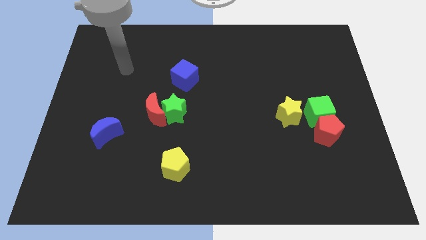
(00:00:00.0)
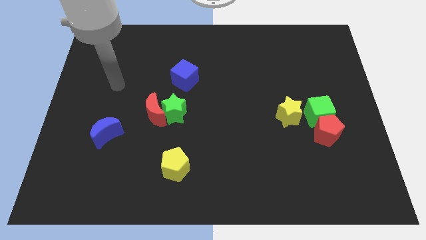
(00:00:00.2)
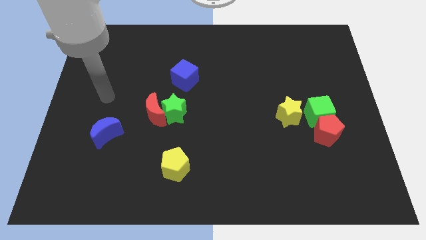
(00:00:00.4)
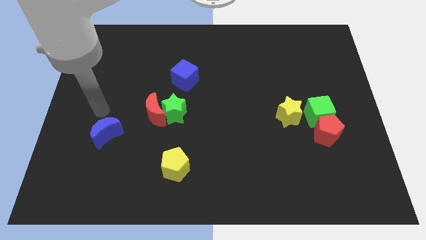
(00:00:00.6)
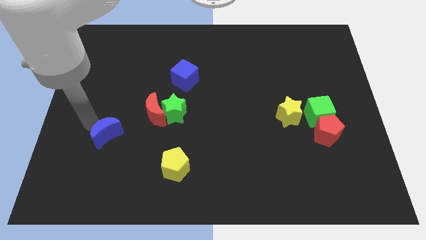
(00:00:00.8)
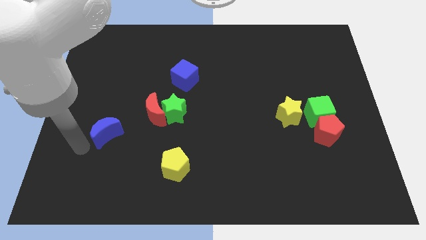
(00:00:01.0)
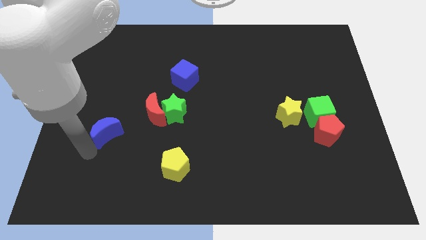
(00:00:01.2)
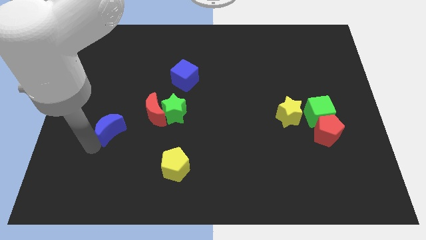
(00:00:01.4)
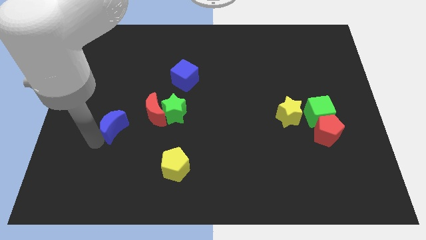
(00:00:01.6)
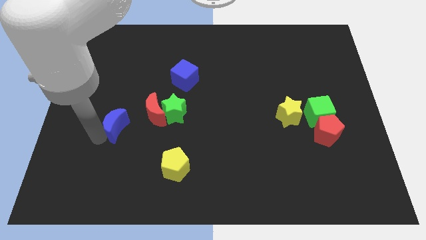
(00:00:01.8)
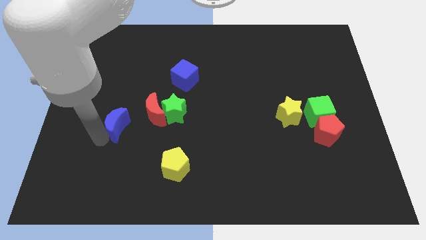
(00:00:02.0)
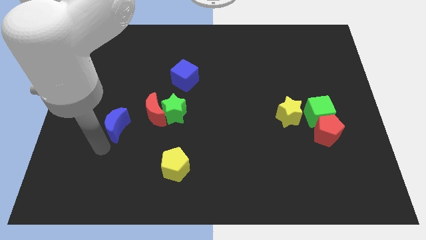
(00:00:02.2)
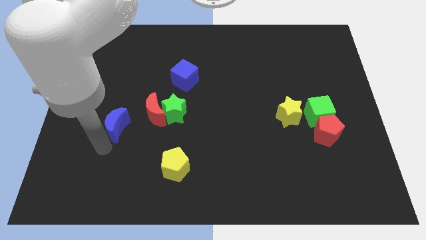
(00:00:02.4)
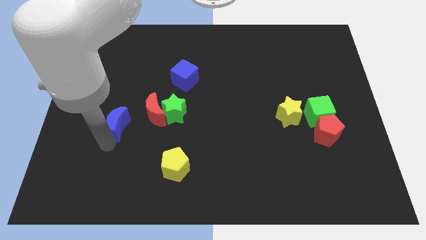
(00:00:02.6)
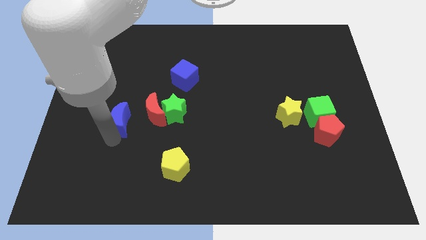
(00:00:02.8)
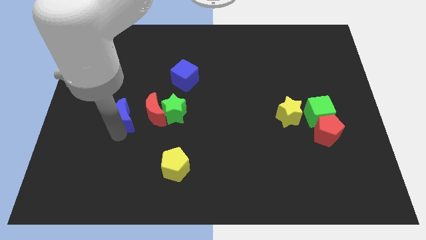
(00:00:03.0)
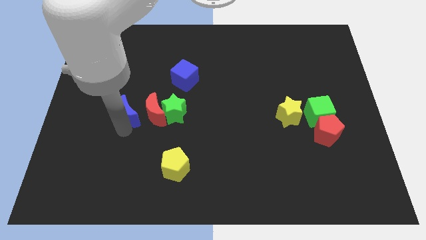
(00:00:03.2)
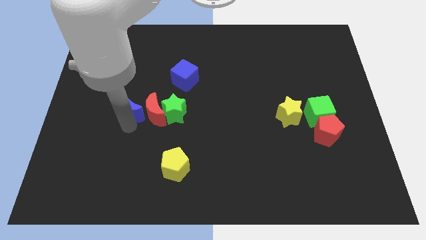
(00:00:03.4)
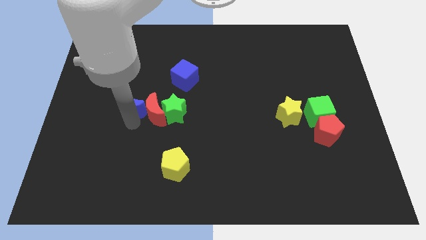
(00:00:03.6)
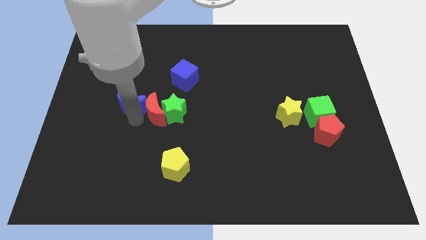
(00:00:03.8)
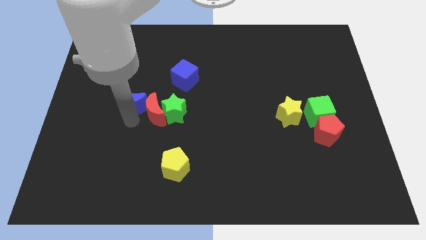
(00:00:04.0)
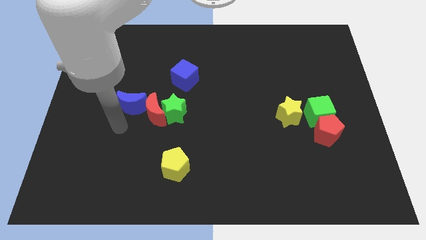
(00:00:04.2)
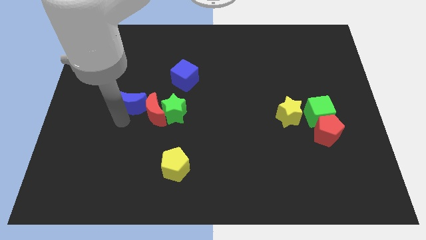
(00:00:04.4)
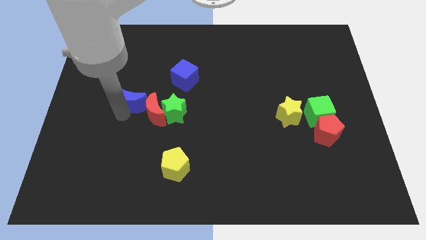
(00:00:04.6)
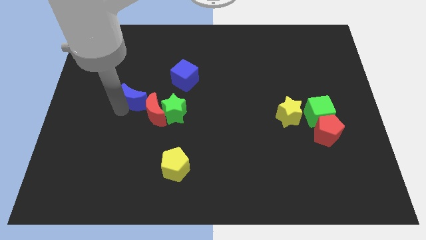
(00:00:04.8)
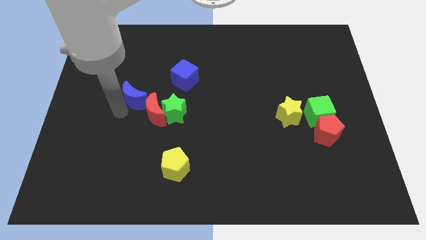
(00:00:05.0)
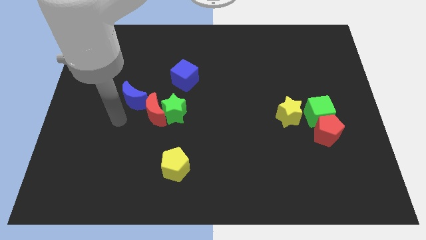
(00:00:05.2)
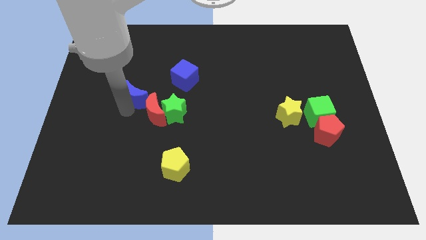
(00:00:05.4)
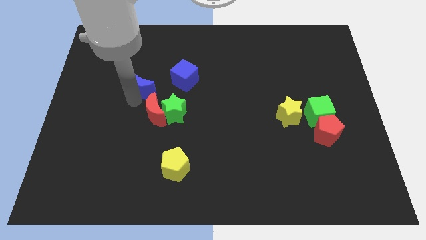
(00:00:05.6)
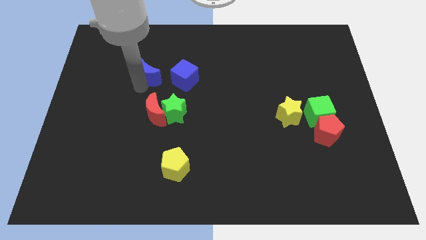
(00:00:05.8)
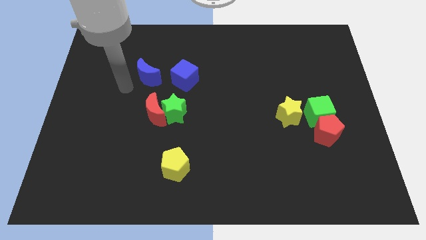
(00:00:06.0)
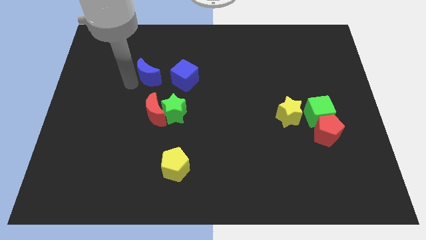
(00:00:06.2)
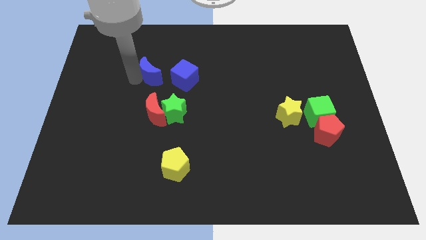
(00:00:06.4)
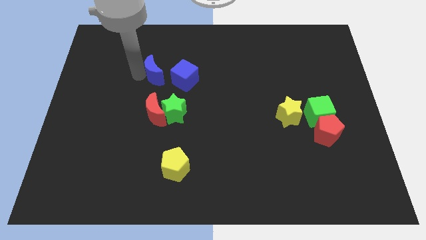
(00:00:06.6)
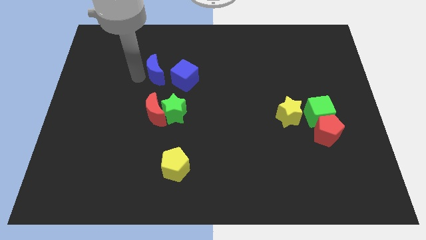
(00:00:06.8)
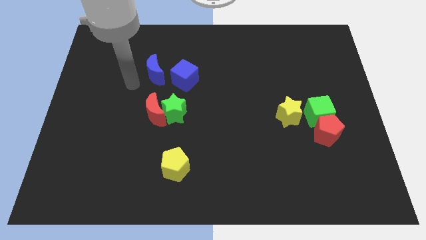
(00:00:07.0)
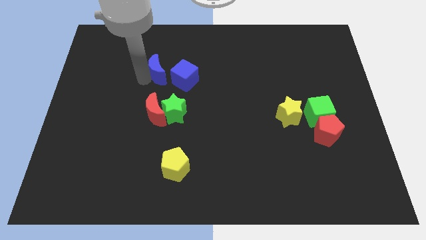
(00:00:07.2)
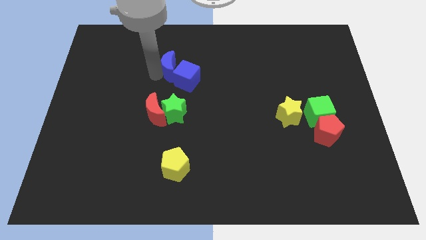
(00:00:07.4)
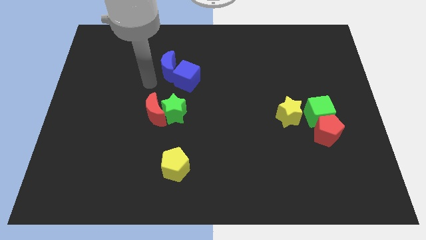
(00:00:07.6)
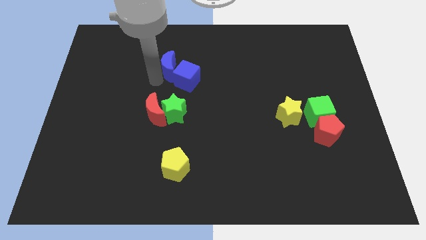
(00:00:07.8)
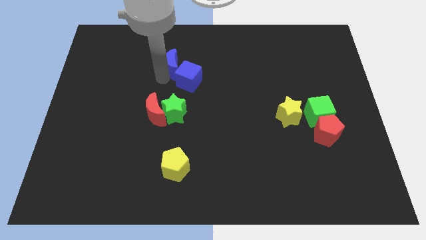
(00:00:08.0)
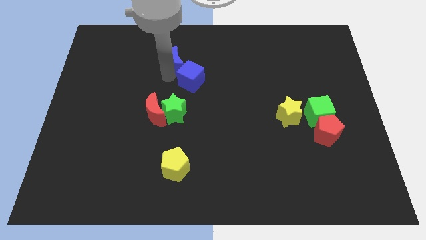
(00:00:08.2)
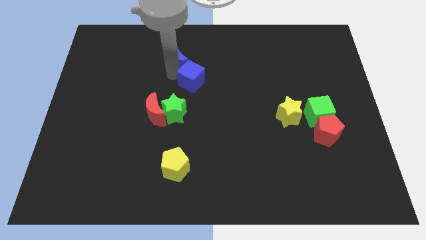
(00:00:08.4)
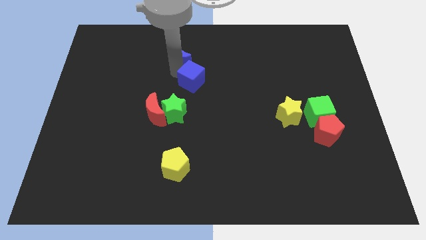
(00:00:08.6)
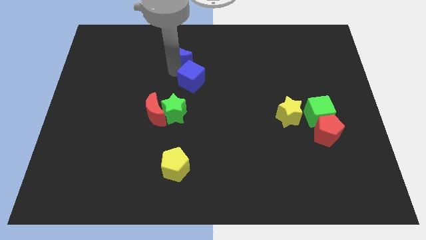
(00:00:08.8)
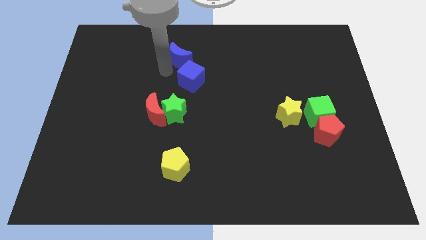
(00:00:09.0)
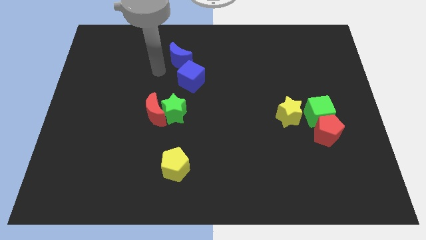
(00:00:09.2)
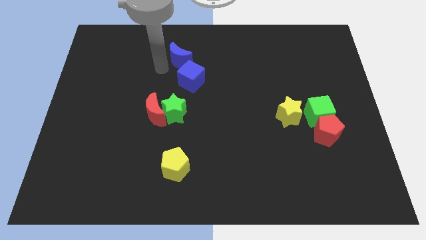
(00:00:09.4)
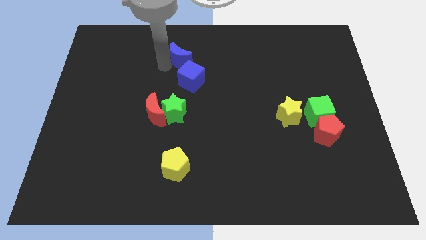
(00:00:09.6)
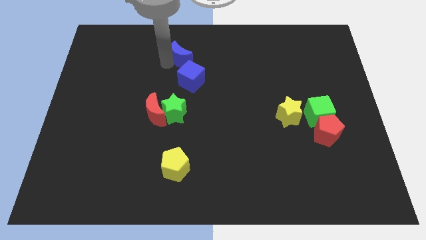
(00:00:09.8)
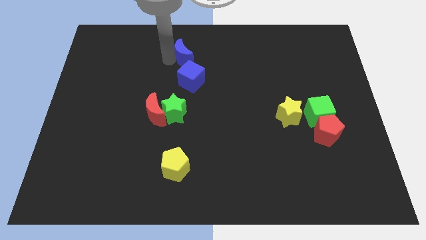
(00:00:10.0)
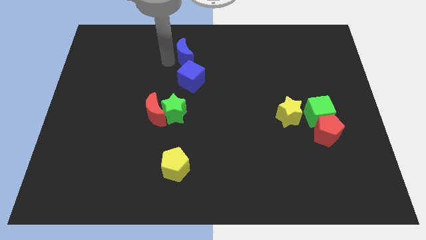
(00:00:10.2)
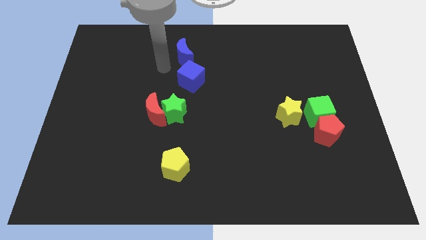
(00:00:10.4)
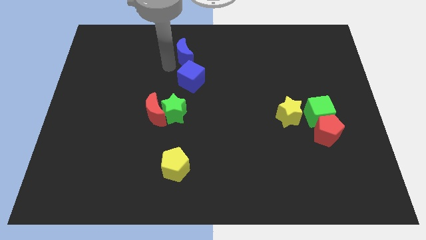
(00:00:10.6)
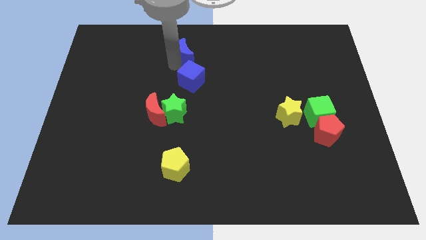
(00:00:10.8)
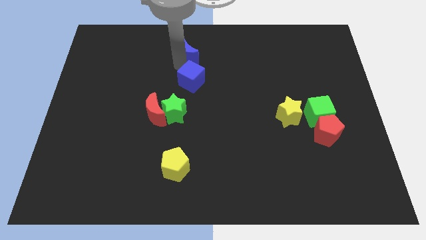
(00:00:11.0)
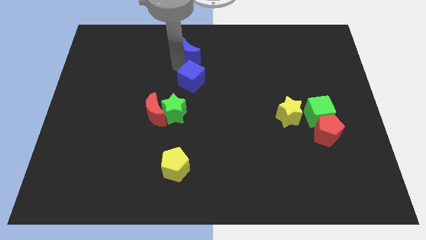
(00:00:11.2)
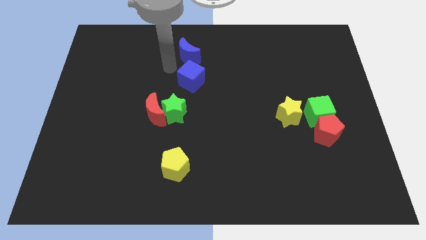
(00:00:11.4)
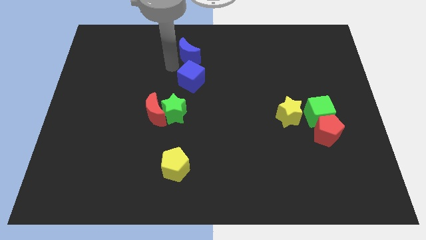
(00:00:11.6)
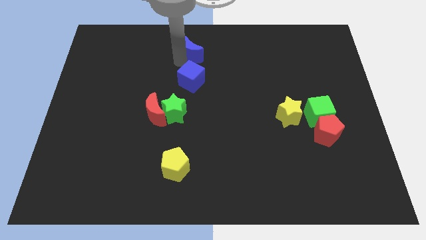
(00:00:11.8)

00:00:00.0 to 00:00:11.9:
push the blue moon to the towards your base

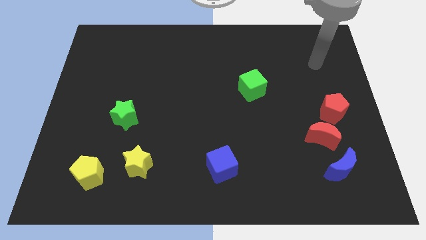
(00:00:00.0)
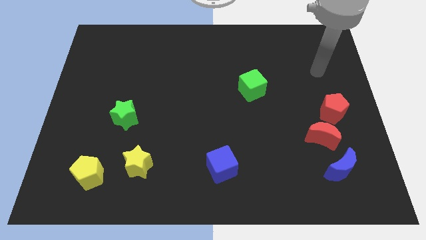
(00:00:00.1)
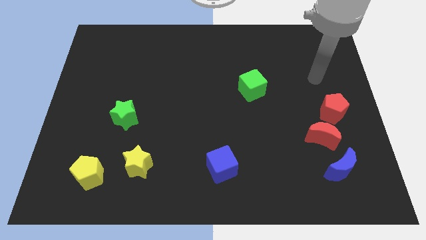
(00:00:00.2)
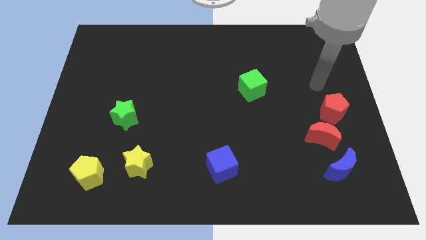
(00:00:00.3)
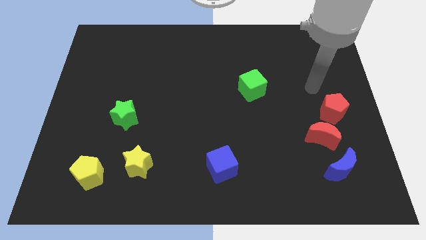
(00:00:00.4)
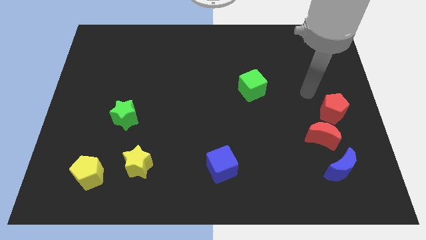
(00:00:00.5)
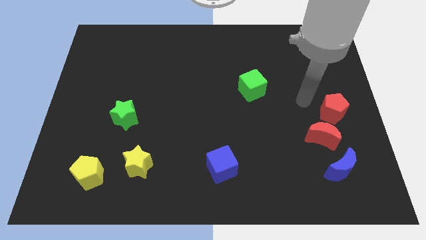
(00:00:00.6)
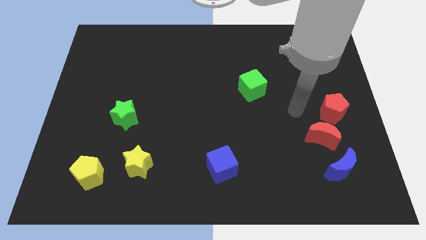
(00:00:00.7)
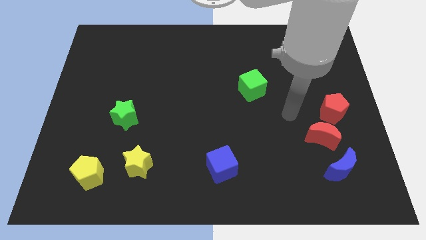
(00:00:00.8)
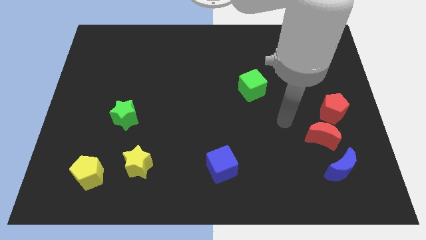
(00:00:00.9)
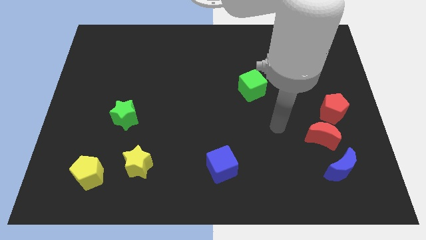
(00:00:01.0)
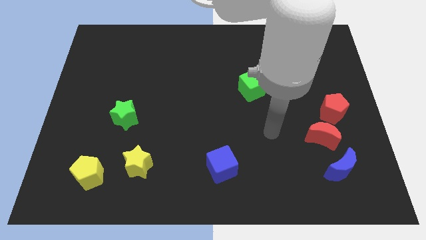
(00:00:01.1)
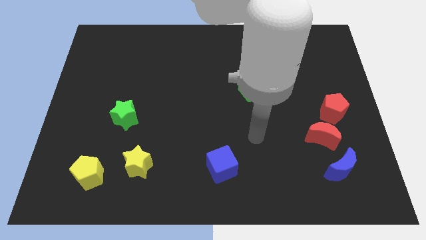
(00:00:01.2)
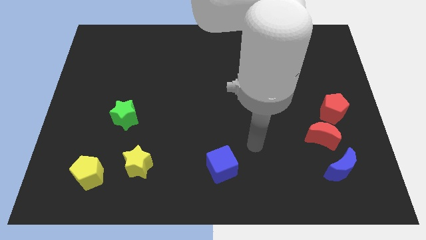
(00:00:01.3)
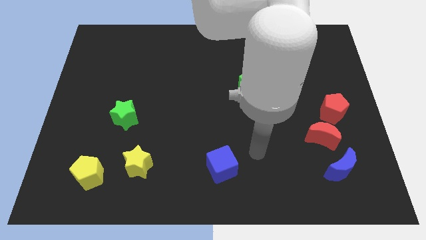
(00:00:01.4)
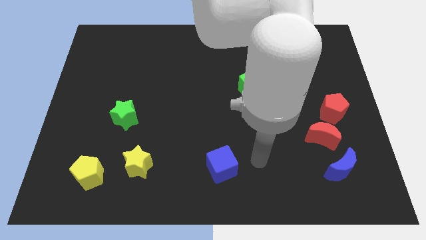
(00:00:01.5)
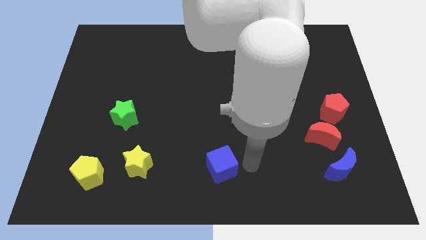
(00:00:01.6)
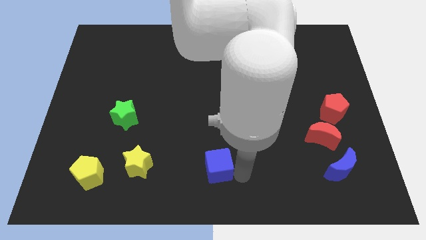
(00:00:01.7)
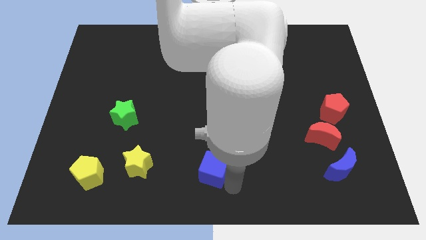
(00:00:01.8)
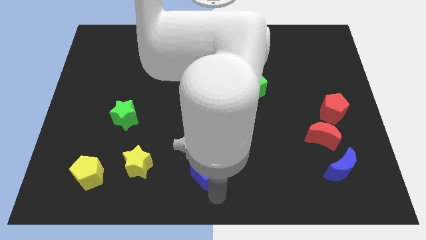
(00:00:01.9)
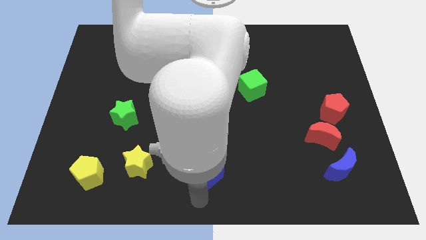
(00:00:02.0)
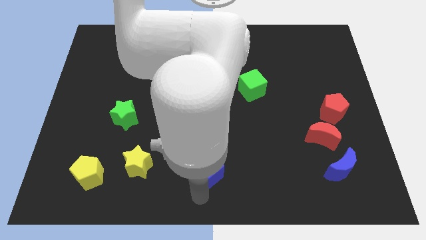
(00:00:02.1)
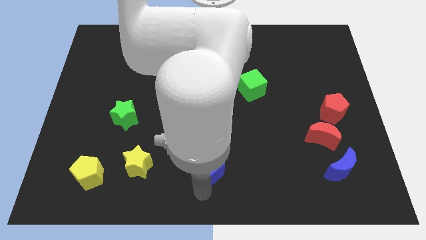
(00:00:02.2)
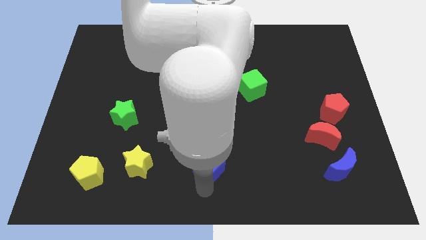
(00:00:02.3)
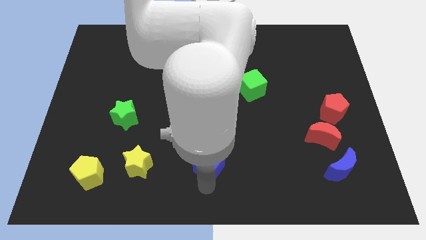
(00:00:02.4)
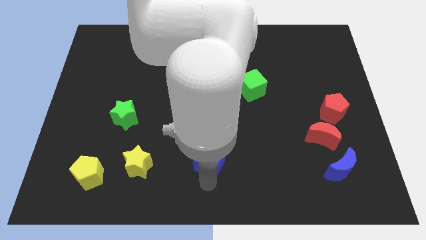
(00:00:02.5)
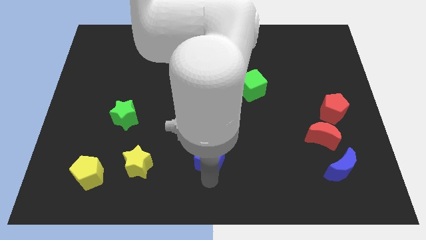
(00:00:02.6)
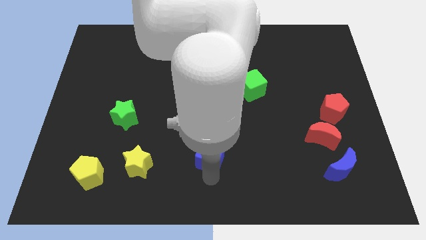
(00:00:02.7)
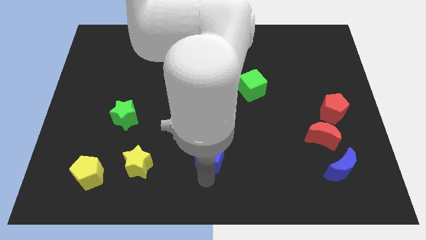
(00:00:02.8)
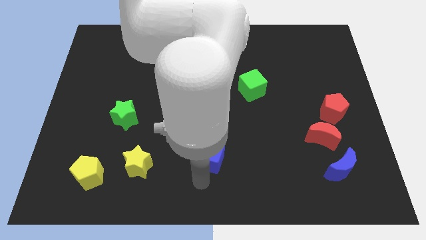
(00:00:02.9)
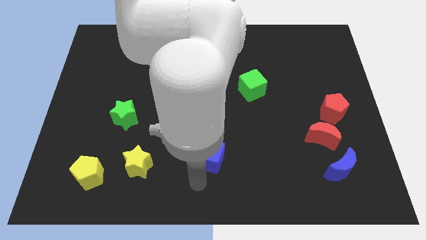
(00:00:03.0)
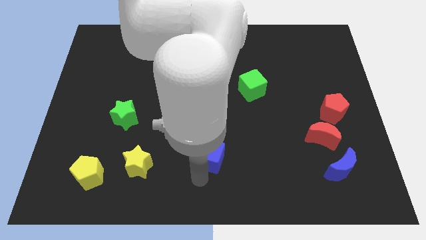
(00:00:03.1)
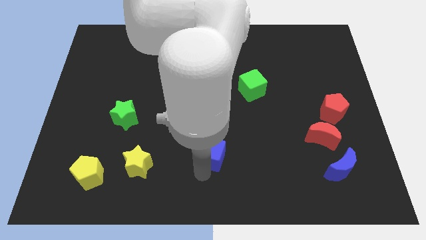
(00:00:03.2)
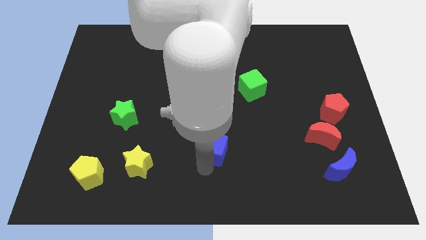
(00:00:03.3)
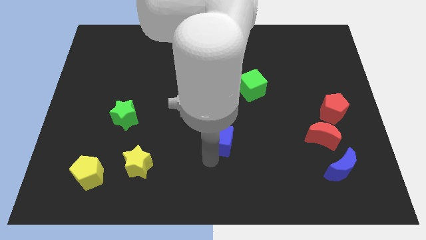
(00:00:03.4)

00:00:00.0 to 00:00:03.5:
put the blue cube to the middle of the board
